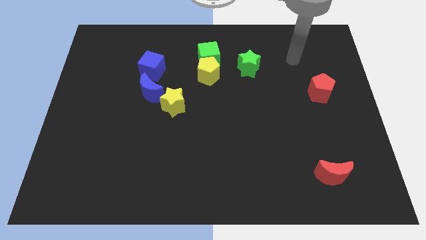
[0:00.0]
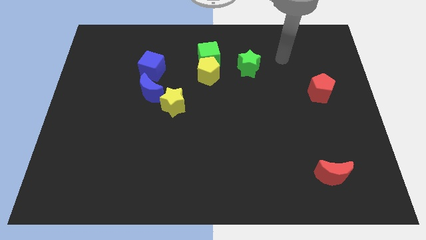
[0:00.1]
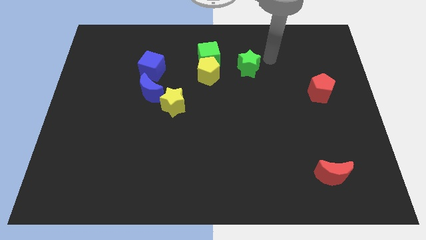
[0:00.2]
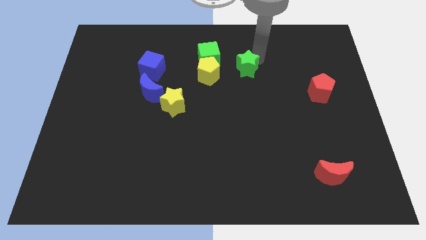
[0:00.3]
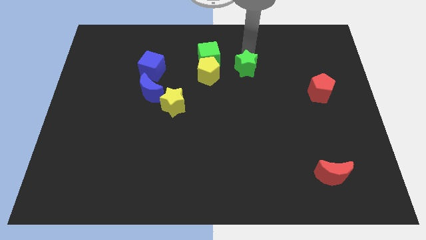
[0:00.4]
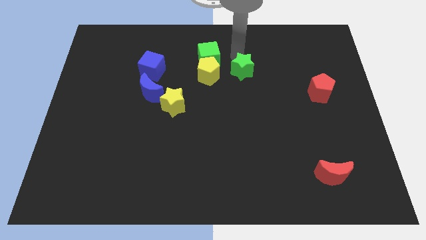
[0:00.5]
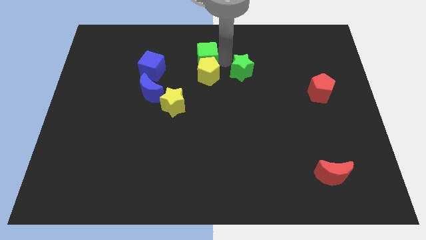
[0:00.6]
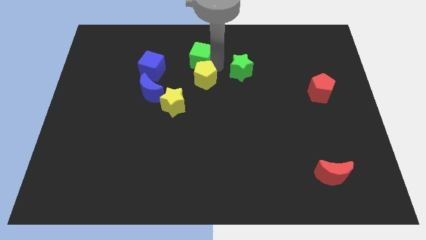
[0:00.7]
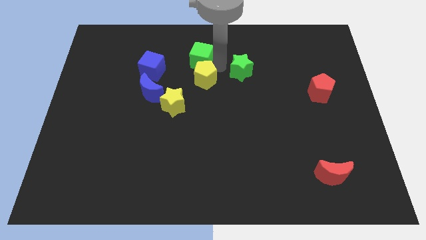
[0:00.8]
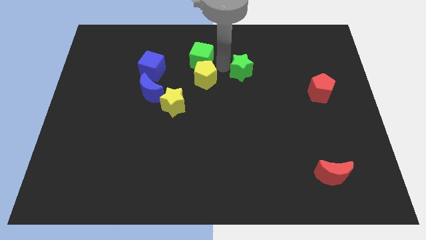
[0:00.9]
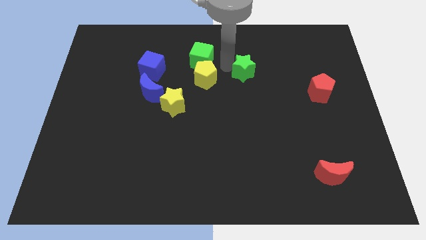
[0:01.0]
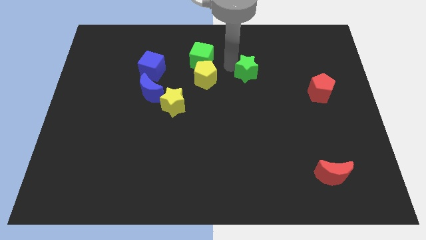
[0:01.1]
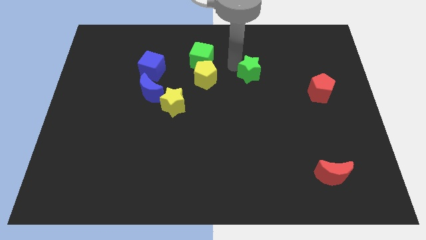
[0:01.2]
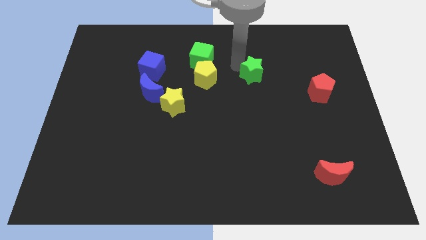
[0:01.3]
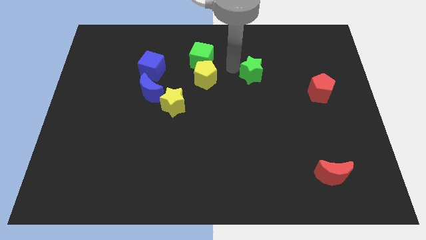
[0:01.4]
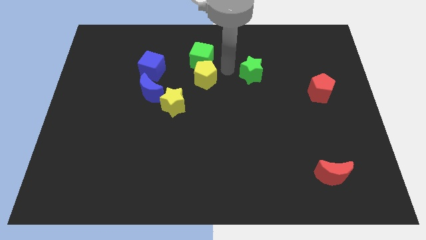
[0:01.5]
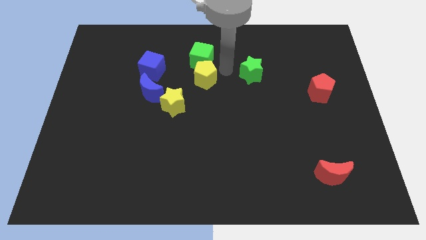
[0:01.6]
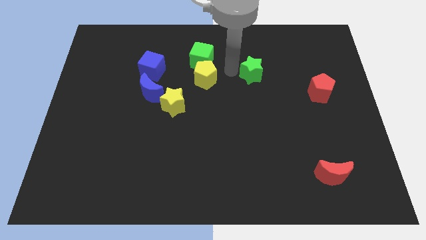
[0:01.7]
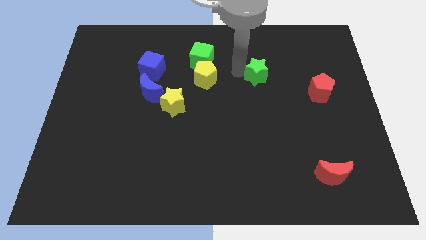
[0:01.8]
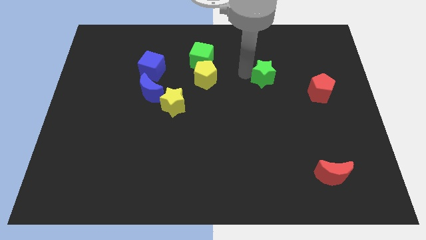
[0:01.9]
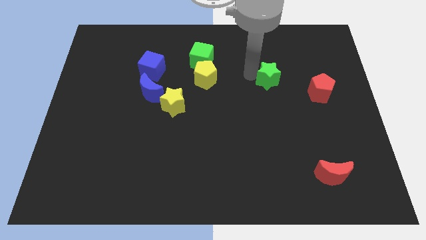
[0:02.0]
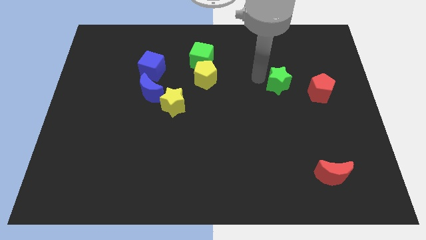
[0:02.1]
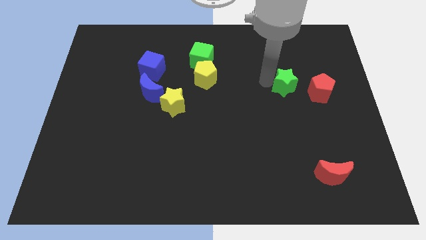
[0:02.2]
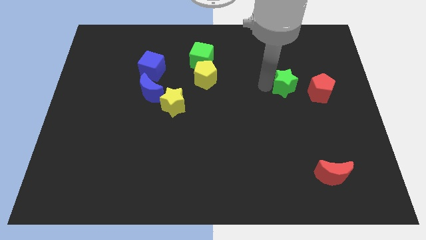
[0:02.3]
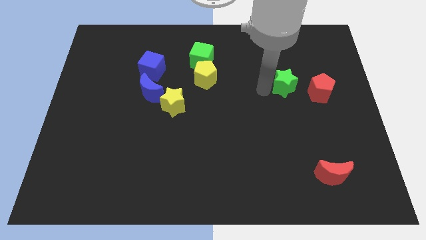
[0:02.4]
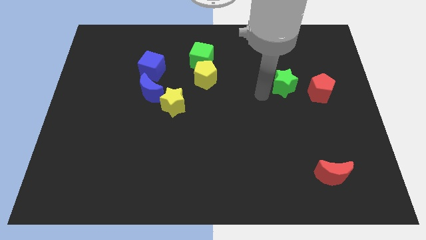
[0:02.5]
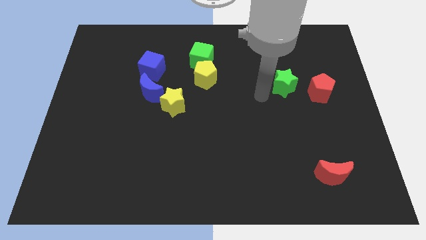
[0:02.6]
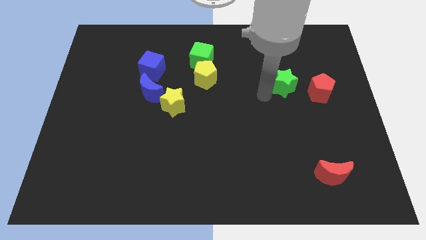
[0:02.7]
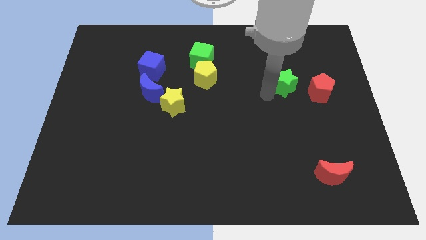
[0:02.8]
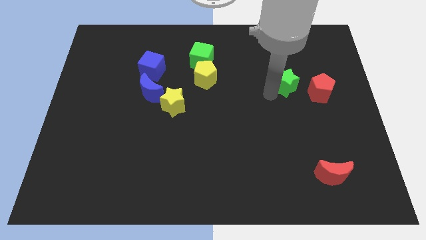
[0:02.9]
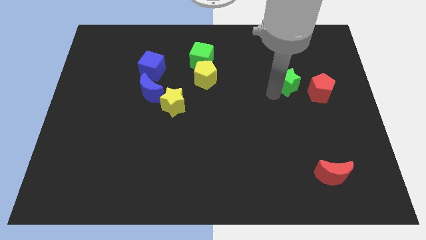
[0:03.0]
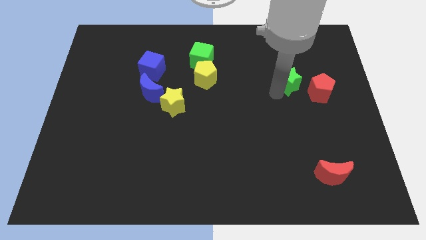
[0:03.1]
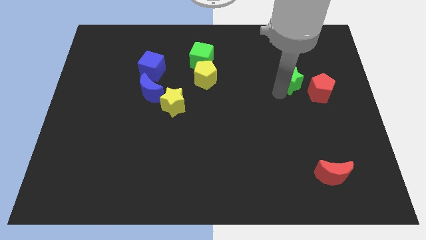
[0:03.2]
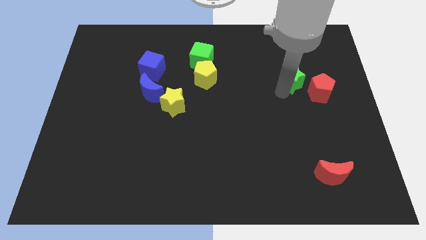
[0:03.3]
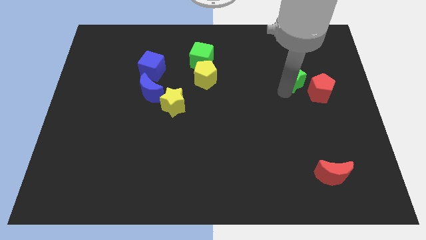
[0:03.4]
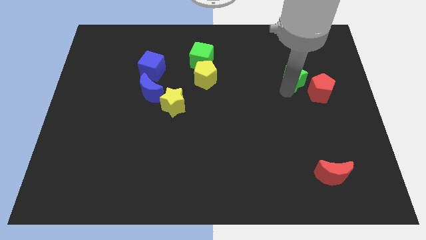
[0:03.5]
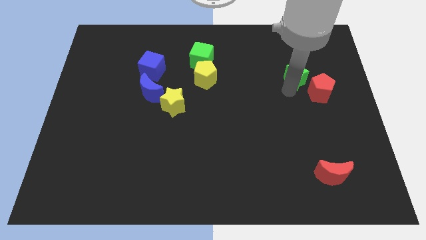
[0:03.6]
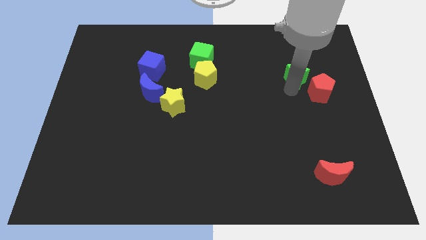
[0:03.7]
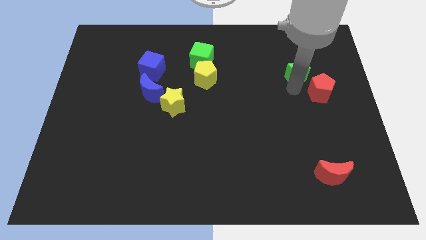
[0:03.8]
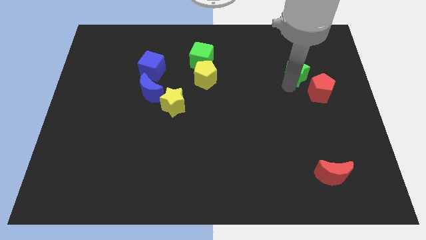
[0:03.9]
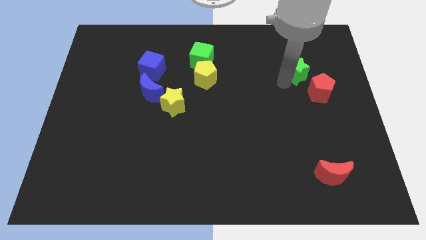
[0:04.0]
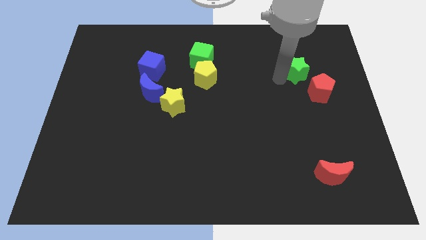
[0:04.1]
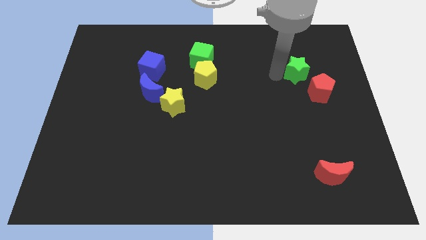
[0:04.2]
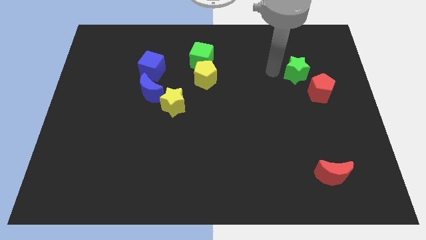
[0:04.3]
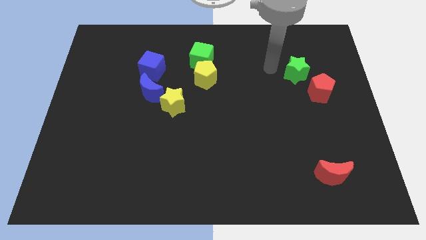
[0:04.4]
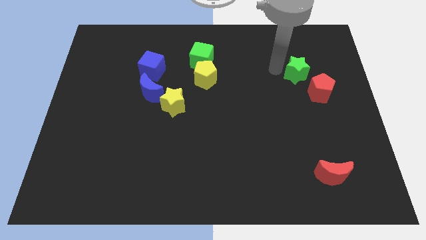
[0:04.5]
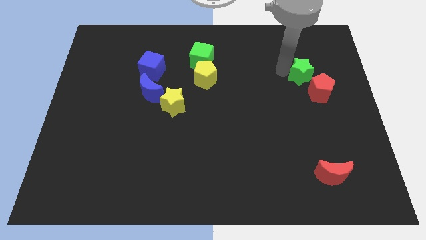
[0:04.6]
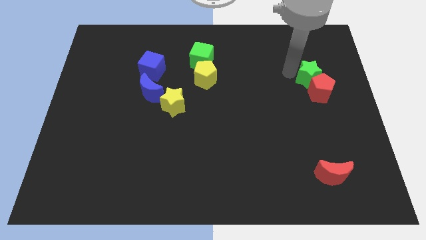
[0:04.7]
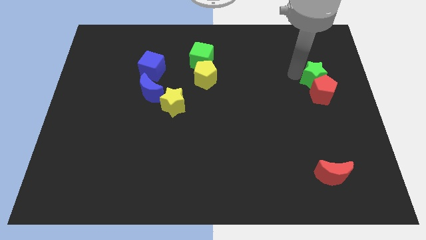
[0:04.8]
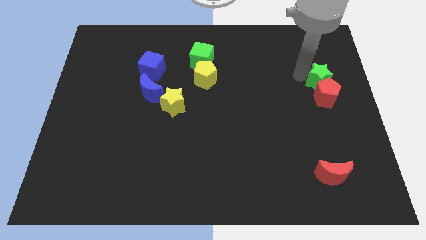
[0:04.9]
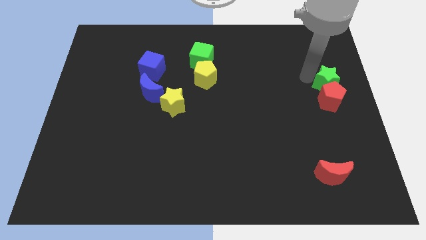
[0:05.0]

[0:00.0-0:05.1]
slide the green star to the right side of the board

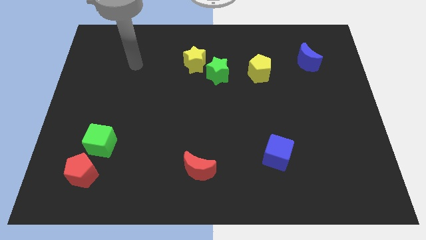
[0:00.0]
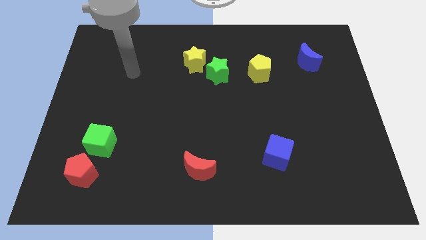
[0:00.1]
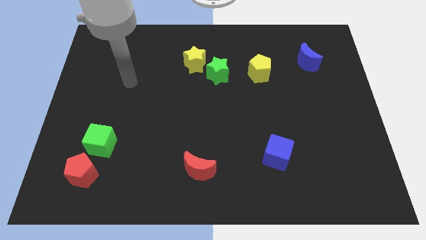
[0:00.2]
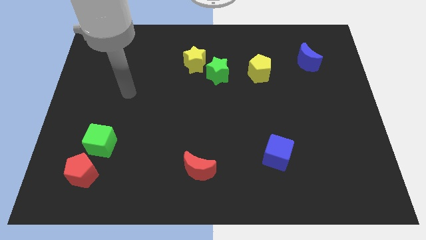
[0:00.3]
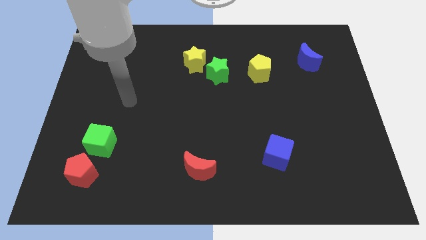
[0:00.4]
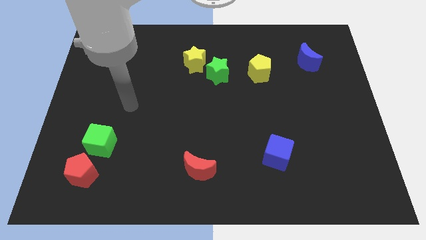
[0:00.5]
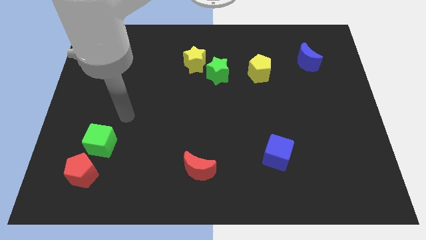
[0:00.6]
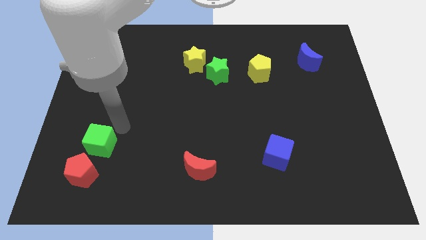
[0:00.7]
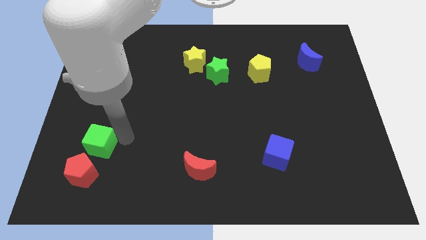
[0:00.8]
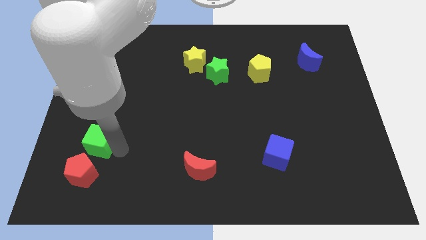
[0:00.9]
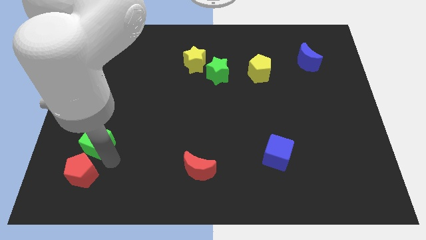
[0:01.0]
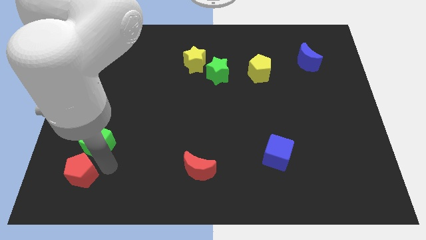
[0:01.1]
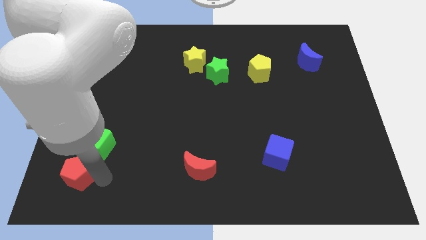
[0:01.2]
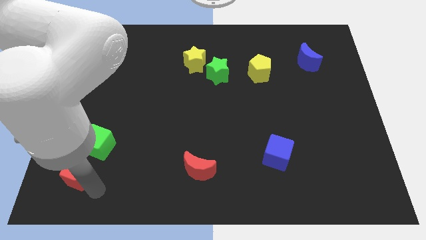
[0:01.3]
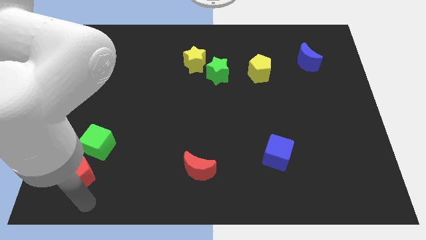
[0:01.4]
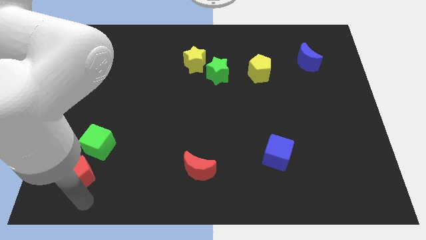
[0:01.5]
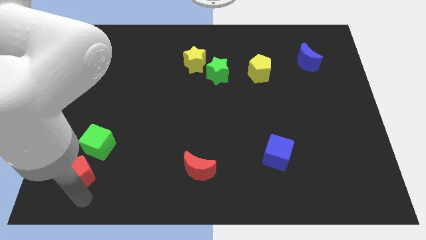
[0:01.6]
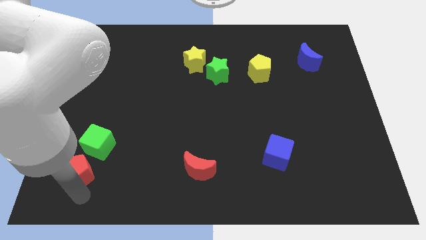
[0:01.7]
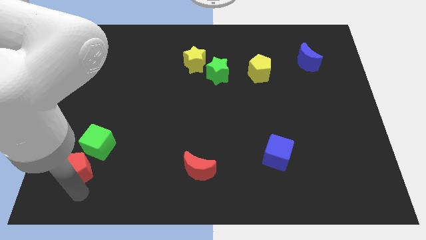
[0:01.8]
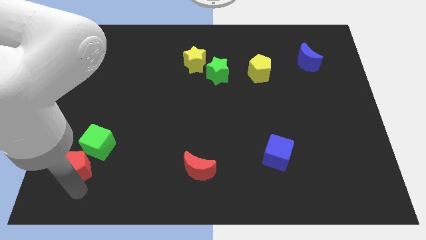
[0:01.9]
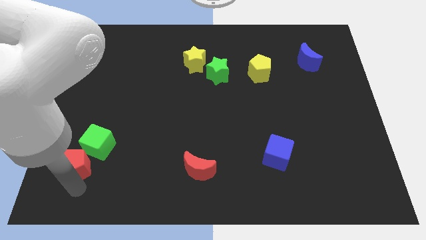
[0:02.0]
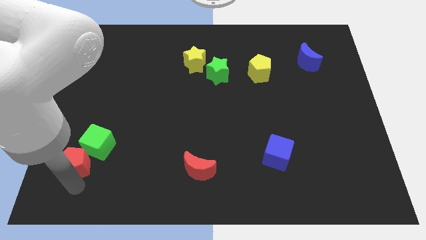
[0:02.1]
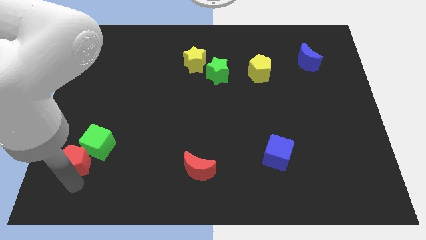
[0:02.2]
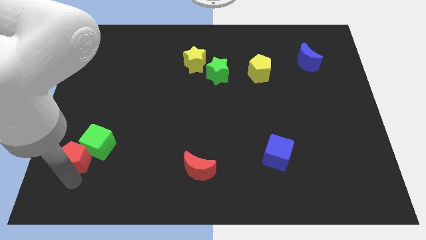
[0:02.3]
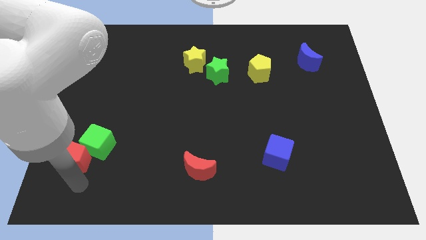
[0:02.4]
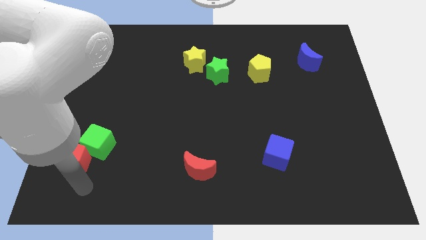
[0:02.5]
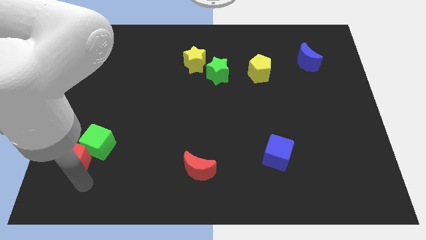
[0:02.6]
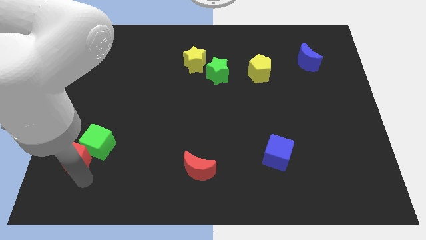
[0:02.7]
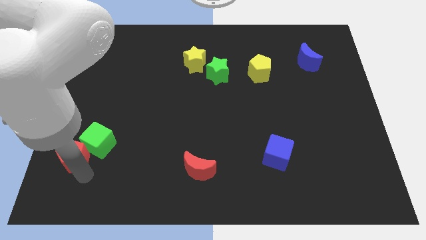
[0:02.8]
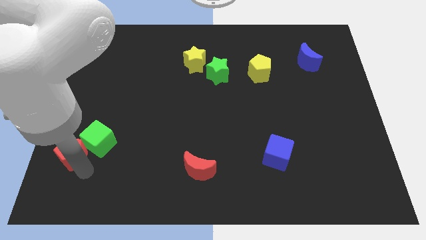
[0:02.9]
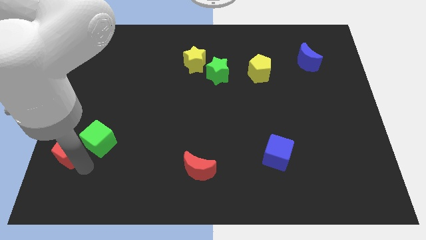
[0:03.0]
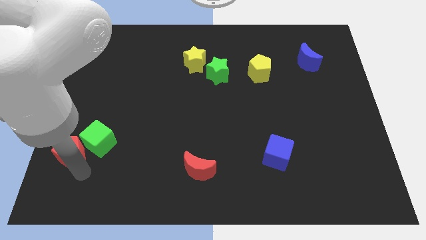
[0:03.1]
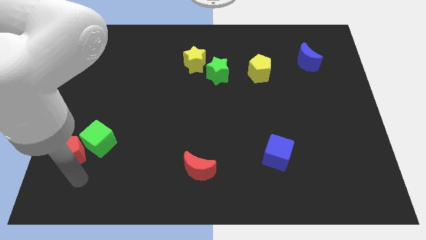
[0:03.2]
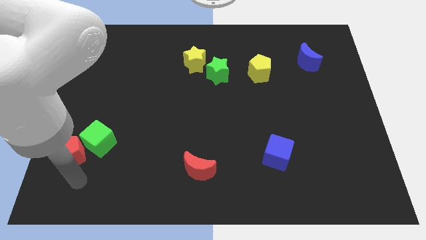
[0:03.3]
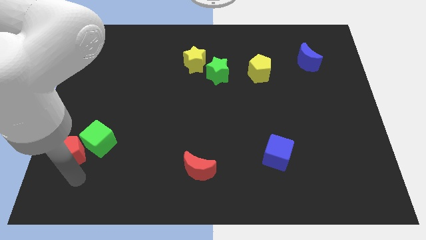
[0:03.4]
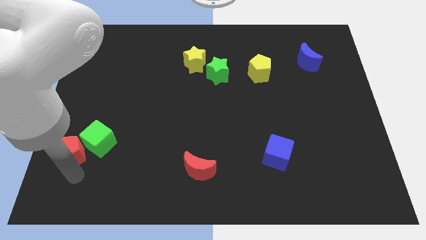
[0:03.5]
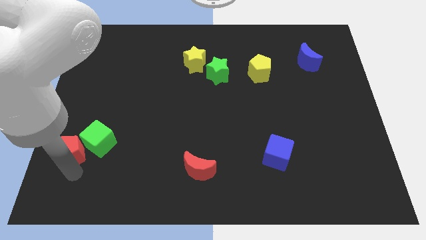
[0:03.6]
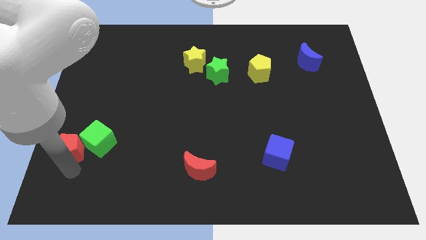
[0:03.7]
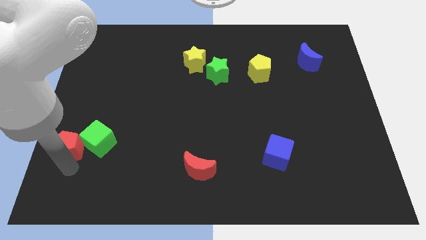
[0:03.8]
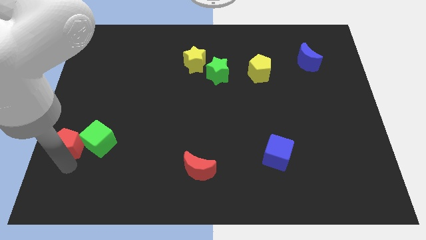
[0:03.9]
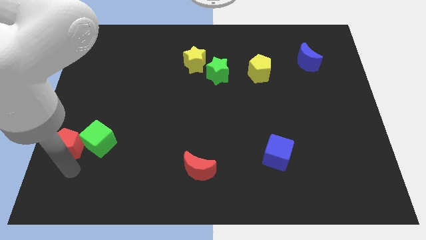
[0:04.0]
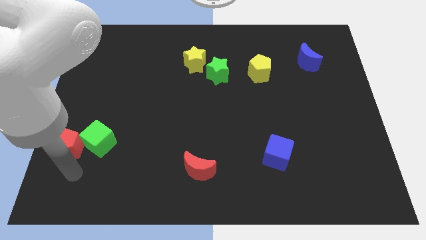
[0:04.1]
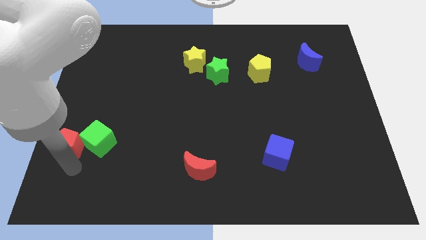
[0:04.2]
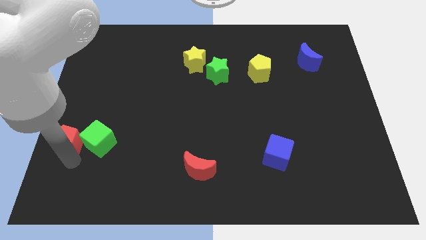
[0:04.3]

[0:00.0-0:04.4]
push the red pentagon to the center left
